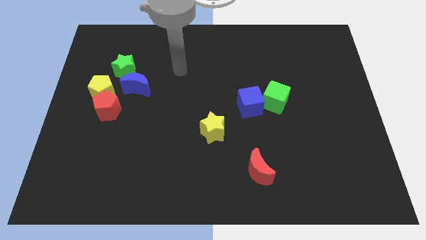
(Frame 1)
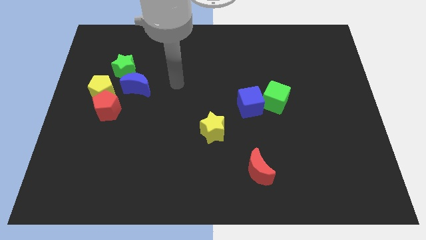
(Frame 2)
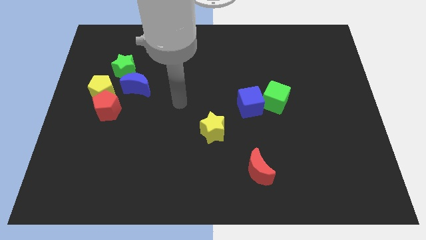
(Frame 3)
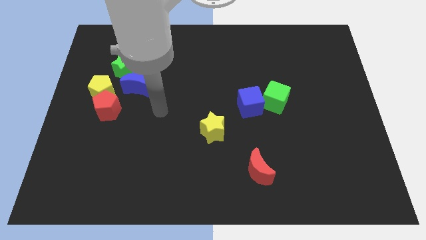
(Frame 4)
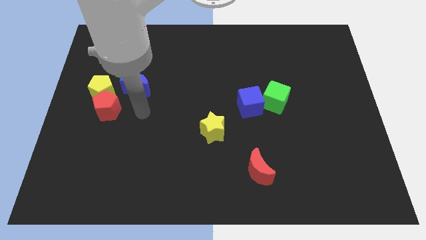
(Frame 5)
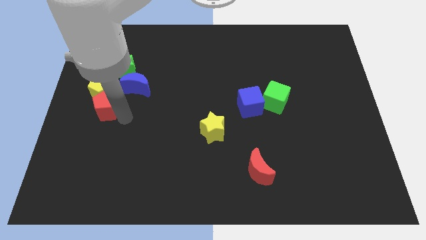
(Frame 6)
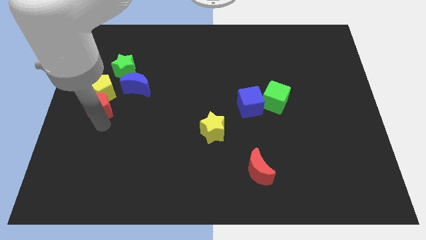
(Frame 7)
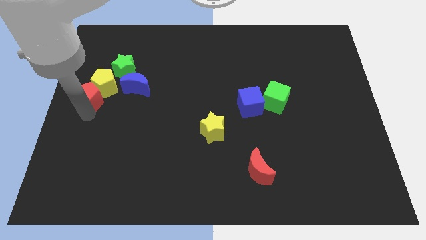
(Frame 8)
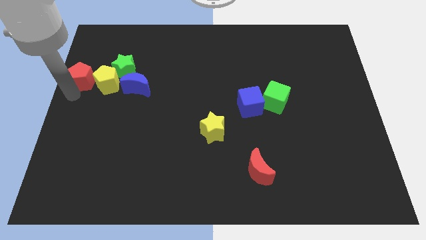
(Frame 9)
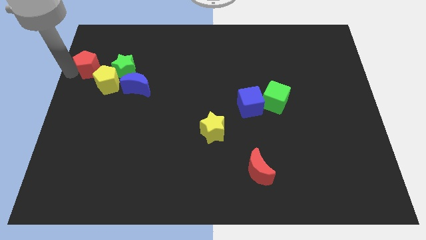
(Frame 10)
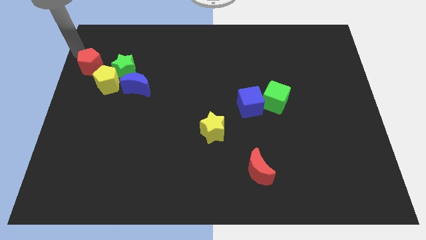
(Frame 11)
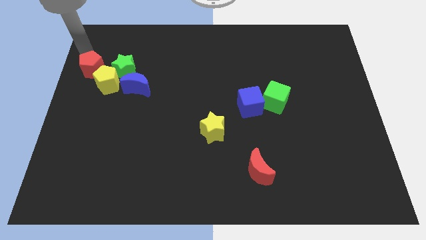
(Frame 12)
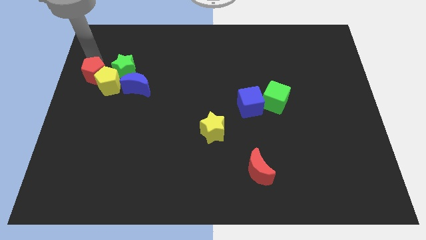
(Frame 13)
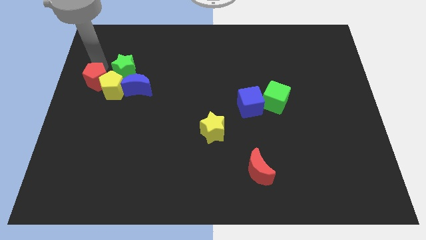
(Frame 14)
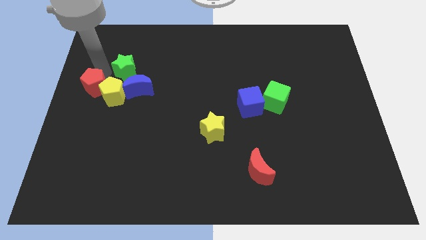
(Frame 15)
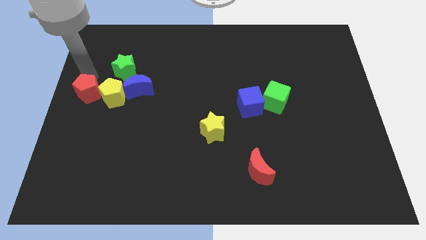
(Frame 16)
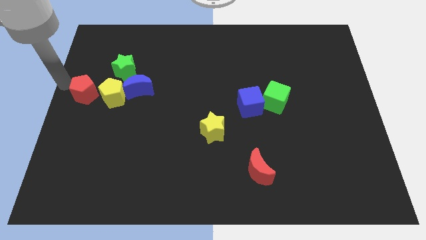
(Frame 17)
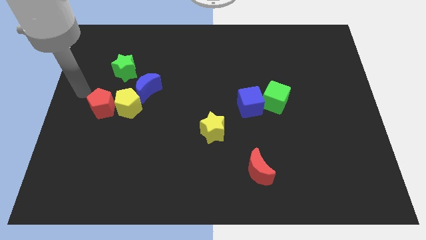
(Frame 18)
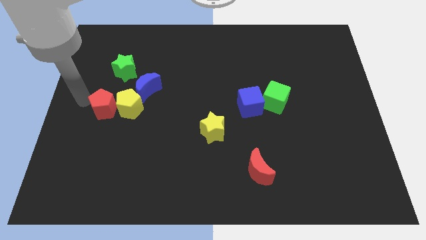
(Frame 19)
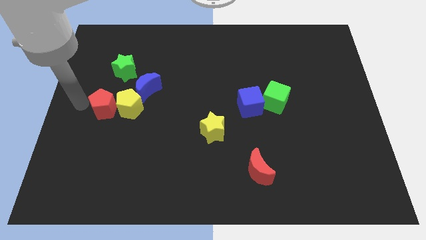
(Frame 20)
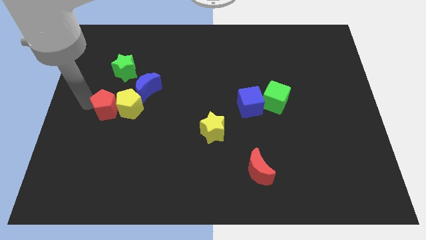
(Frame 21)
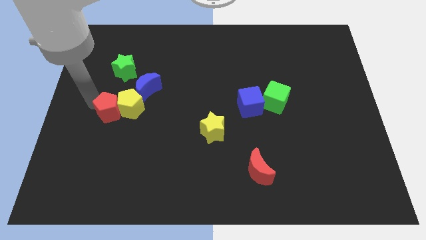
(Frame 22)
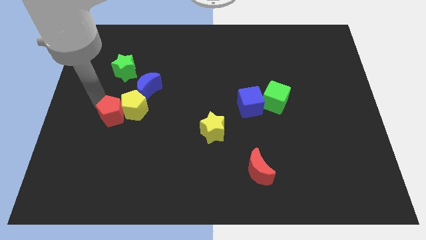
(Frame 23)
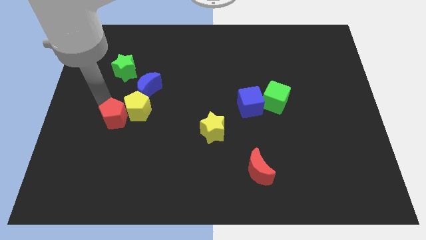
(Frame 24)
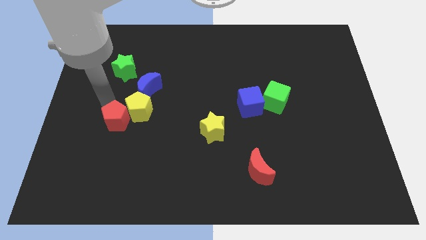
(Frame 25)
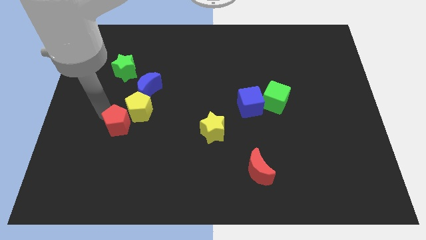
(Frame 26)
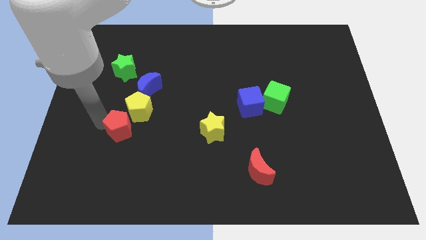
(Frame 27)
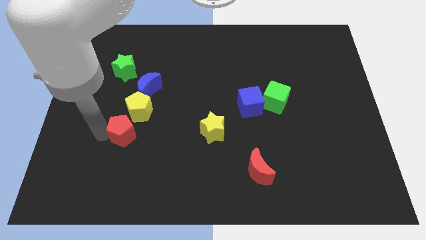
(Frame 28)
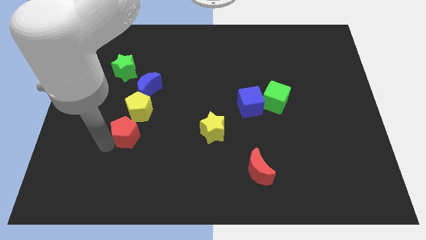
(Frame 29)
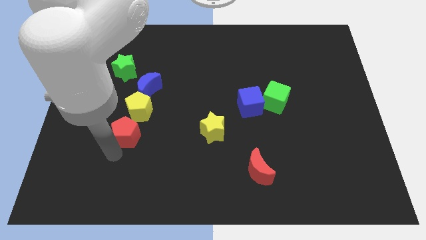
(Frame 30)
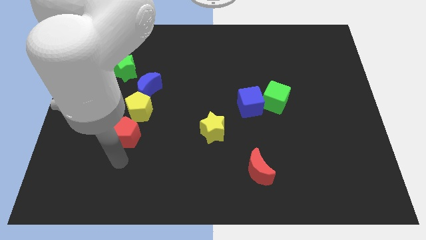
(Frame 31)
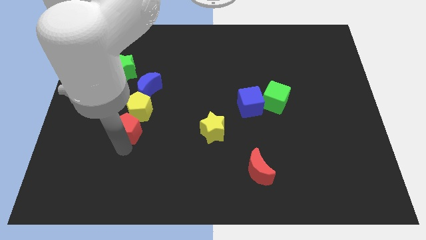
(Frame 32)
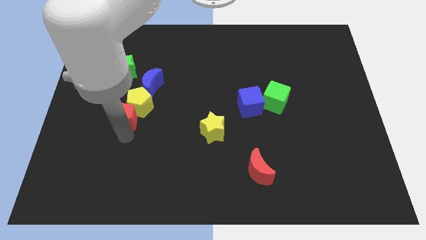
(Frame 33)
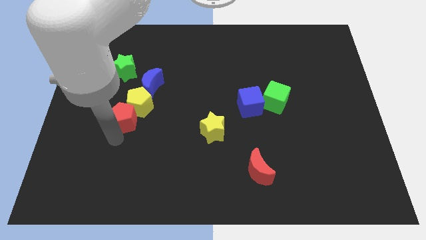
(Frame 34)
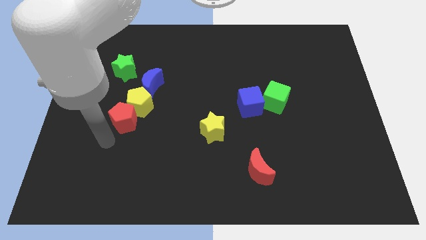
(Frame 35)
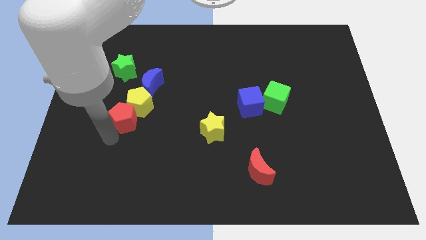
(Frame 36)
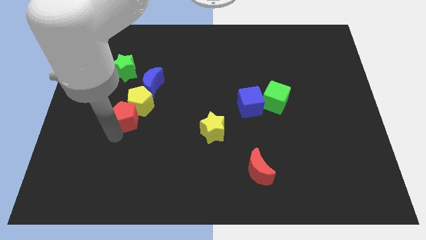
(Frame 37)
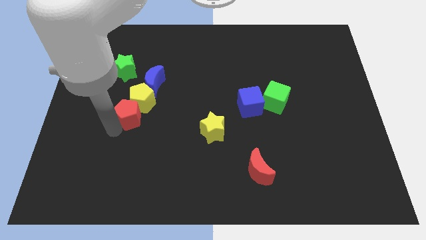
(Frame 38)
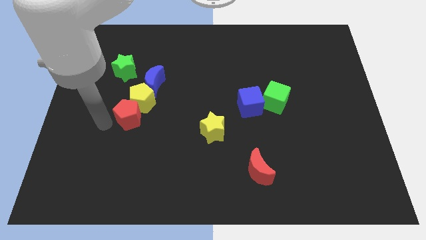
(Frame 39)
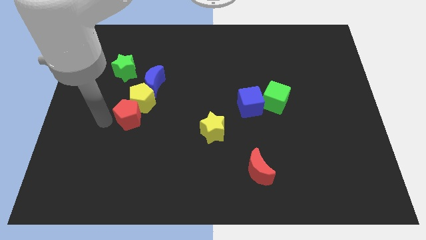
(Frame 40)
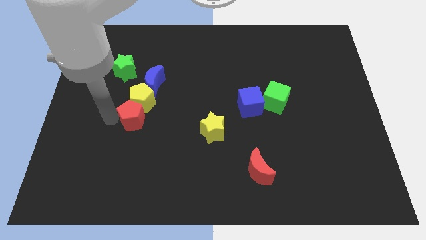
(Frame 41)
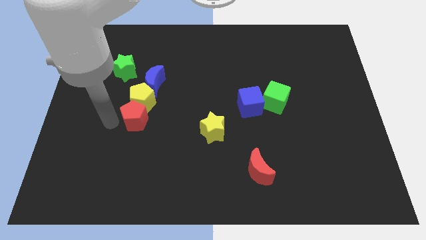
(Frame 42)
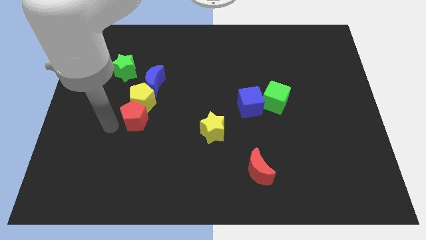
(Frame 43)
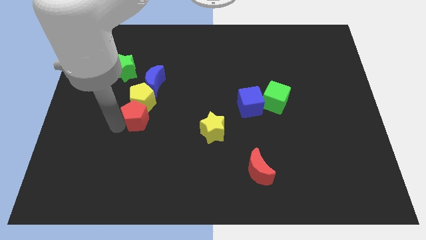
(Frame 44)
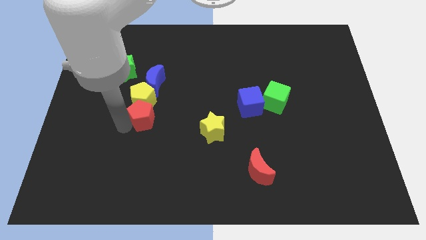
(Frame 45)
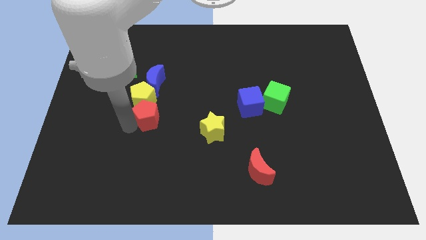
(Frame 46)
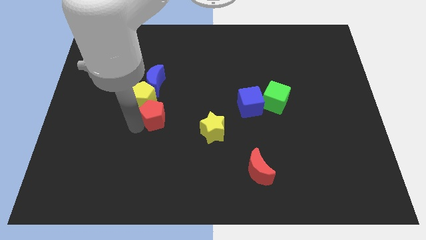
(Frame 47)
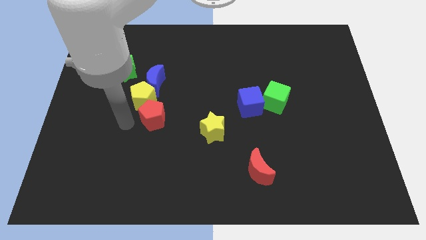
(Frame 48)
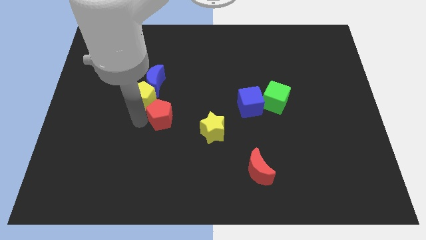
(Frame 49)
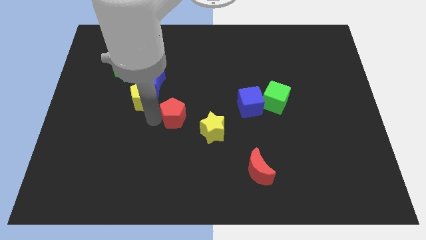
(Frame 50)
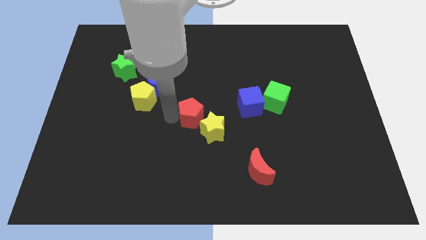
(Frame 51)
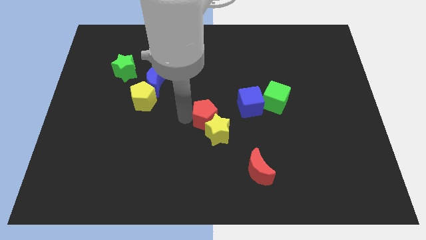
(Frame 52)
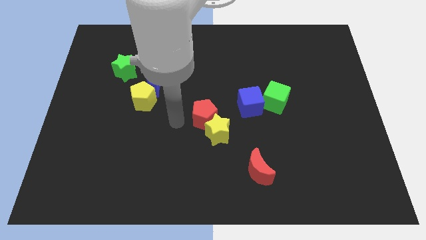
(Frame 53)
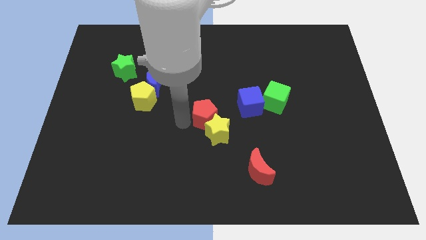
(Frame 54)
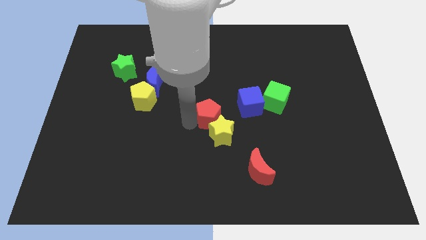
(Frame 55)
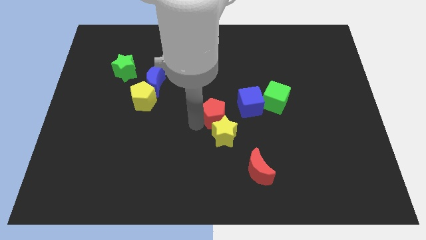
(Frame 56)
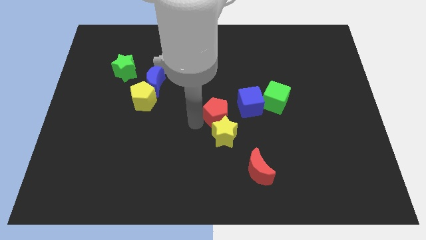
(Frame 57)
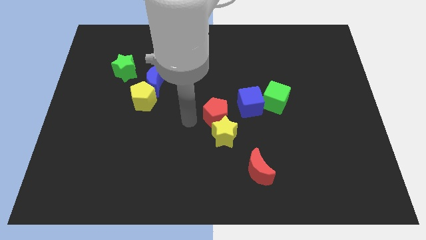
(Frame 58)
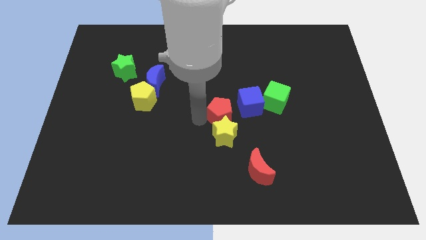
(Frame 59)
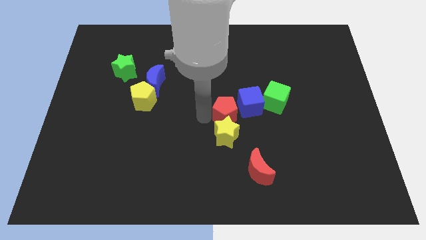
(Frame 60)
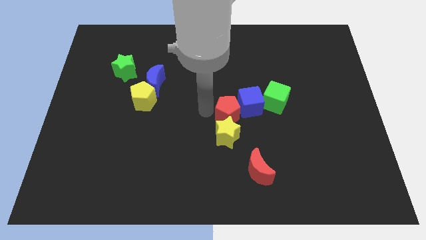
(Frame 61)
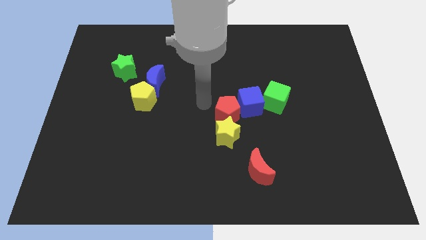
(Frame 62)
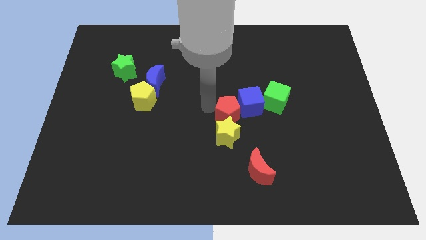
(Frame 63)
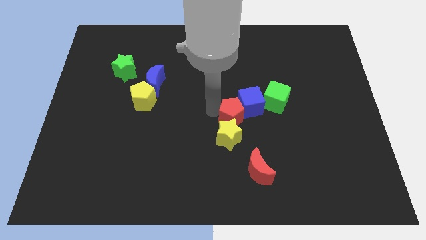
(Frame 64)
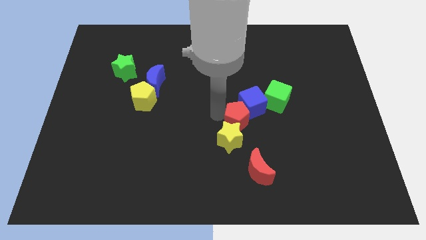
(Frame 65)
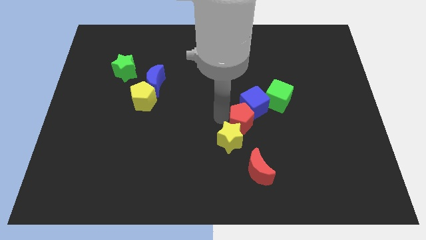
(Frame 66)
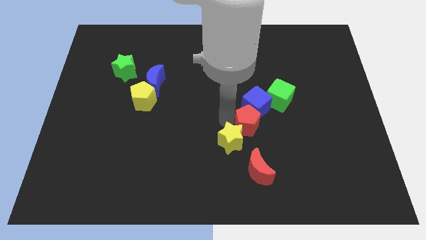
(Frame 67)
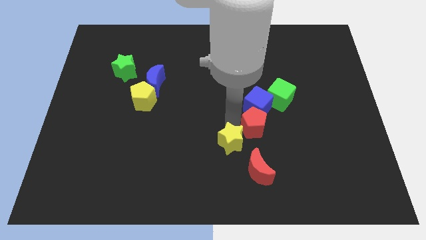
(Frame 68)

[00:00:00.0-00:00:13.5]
slide the red pentagon diagonally down and to the right of the blue cube
